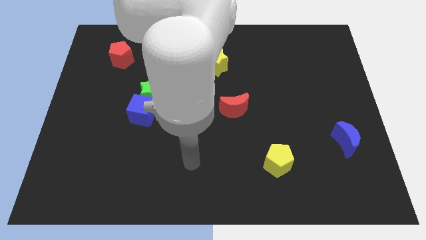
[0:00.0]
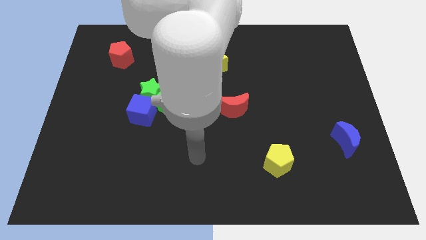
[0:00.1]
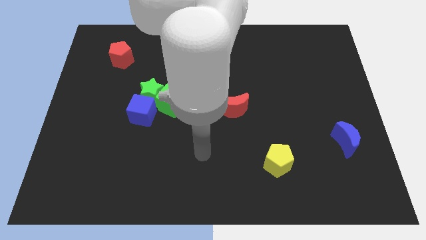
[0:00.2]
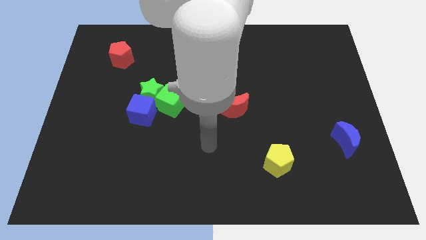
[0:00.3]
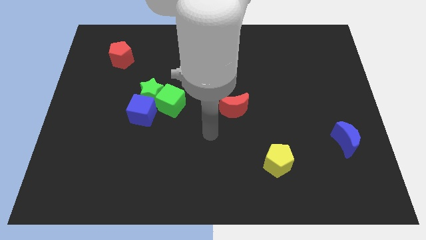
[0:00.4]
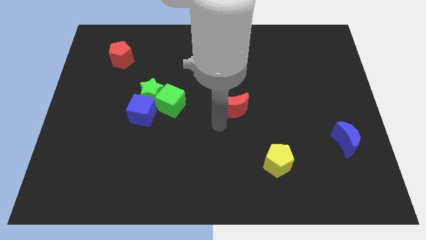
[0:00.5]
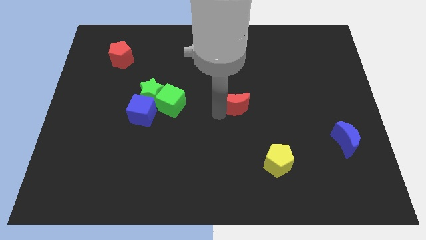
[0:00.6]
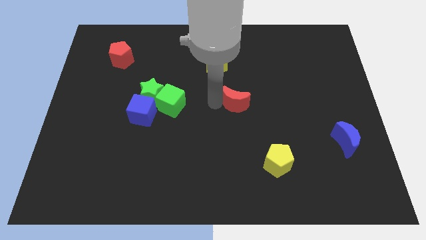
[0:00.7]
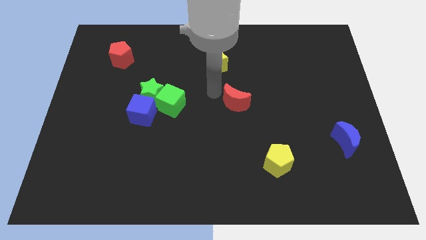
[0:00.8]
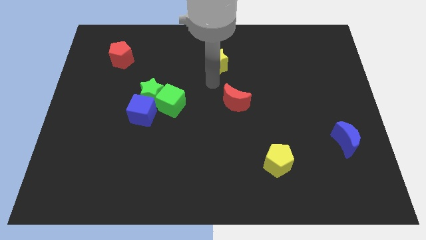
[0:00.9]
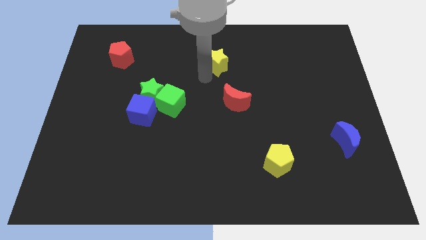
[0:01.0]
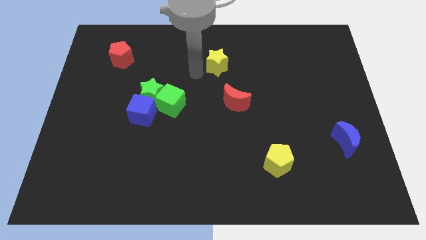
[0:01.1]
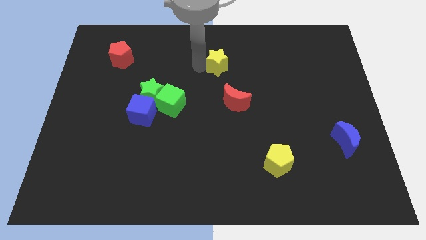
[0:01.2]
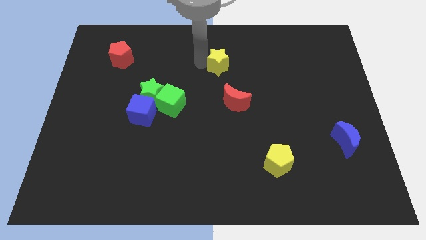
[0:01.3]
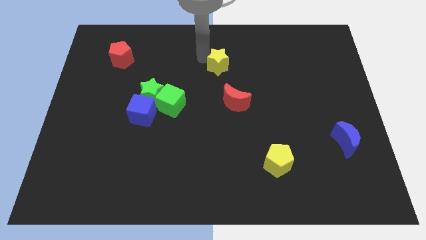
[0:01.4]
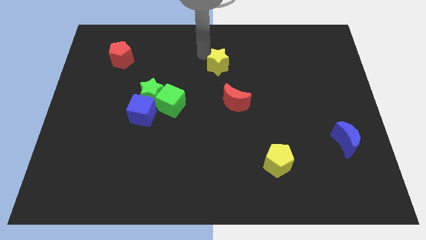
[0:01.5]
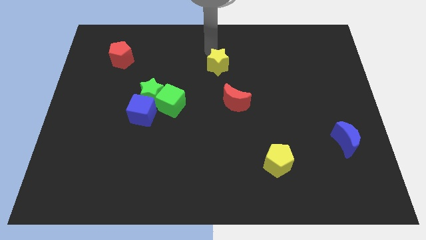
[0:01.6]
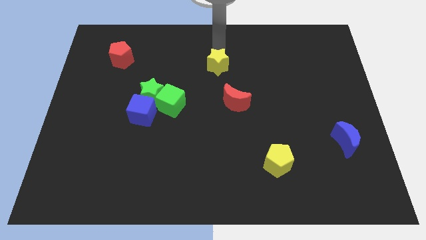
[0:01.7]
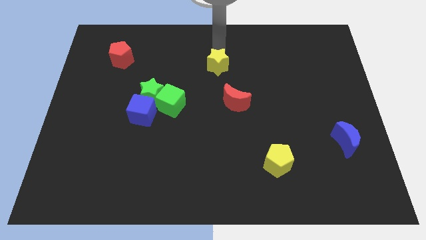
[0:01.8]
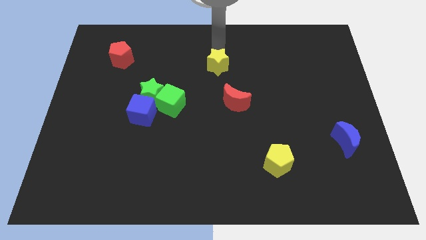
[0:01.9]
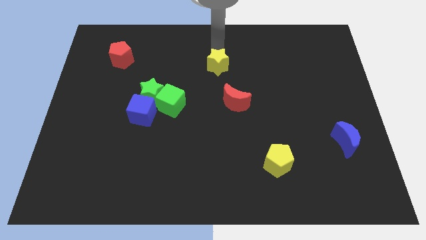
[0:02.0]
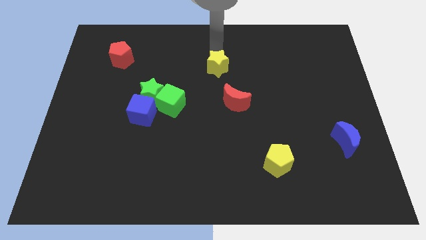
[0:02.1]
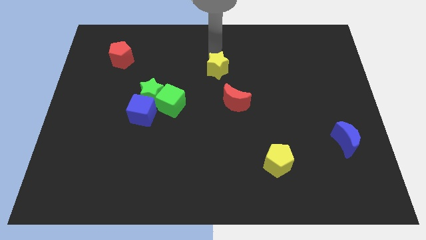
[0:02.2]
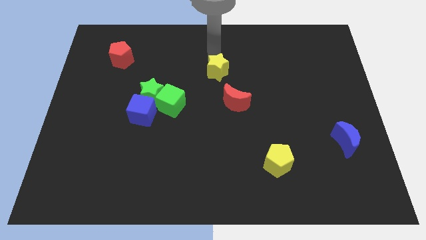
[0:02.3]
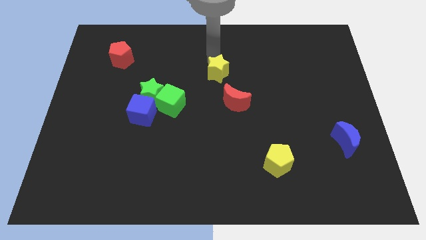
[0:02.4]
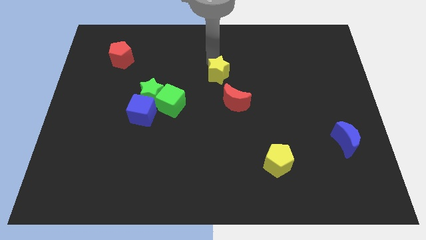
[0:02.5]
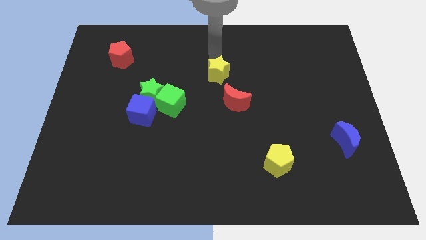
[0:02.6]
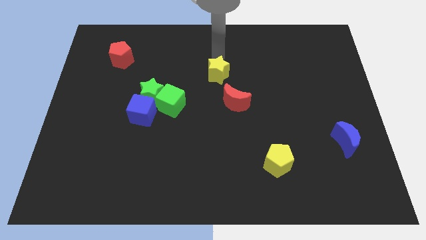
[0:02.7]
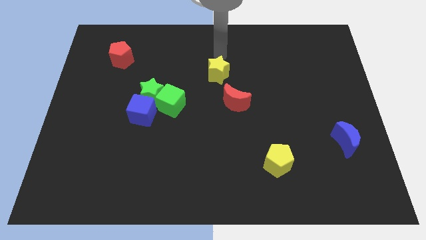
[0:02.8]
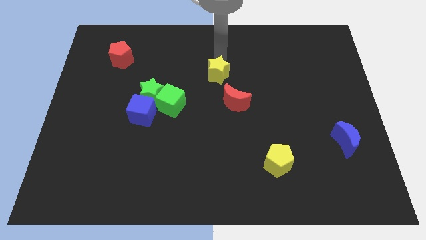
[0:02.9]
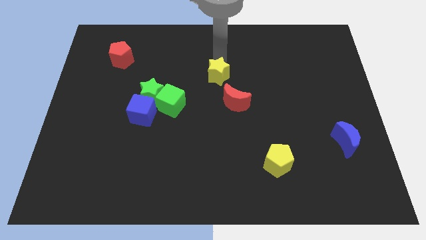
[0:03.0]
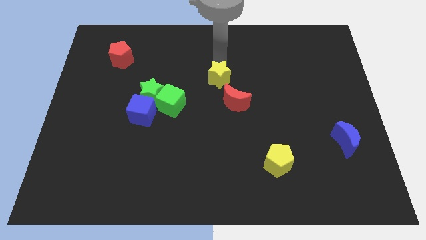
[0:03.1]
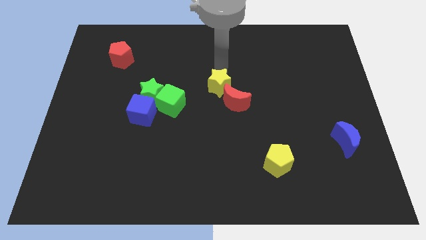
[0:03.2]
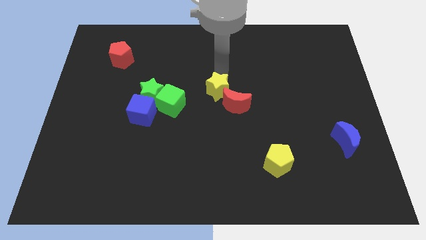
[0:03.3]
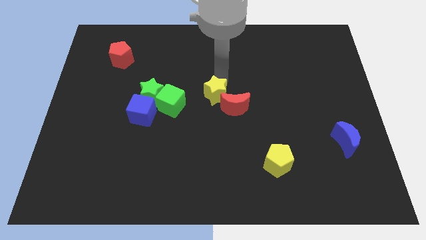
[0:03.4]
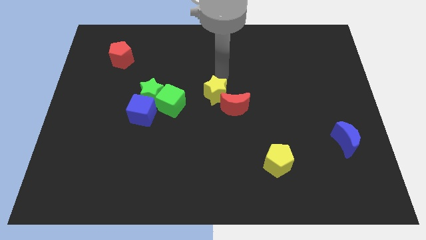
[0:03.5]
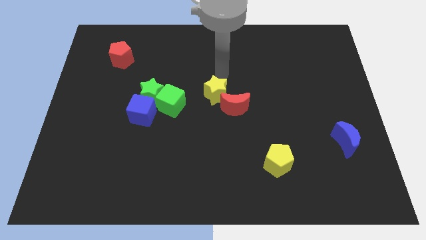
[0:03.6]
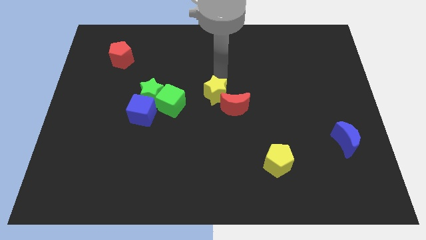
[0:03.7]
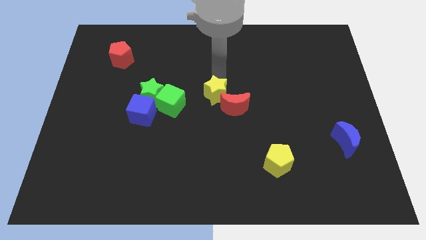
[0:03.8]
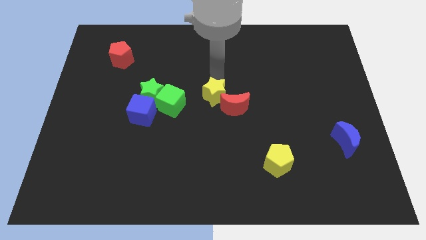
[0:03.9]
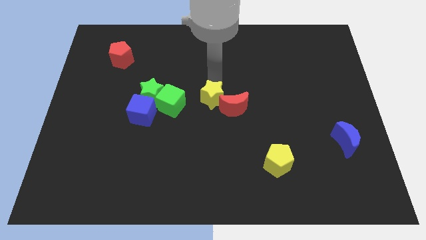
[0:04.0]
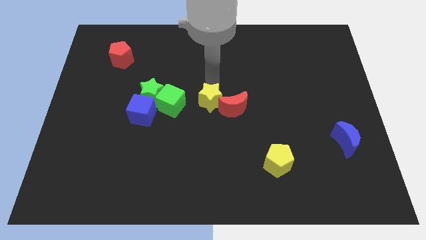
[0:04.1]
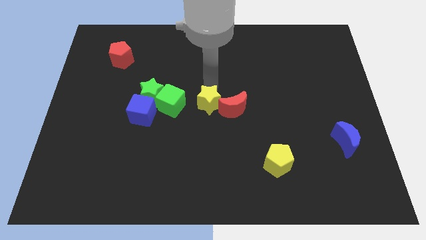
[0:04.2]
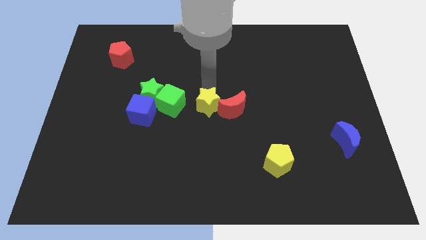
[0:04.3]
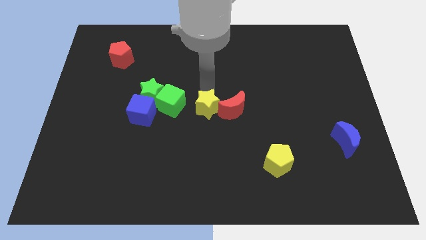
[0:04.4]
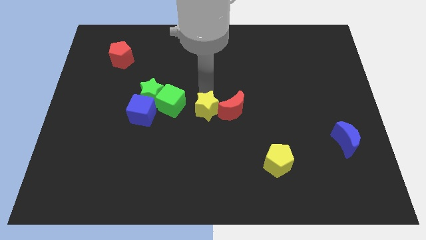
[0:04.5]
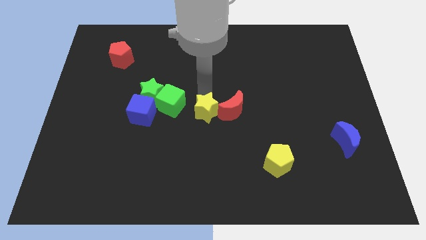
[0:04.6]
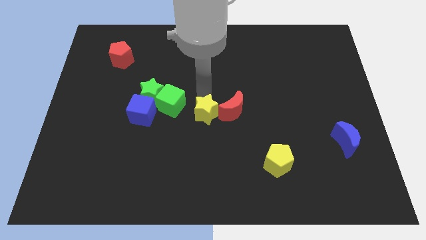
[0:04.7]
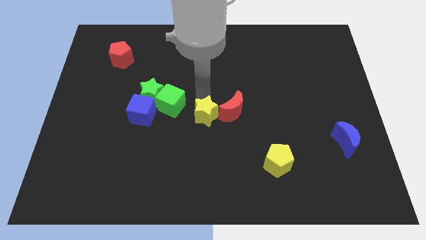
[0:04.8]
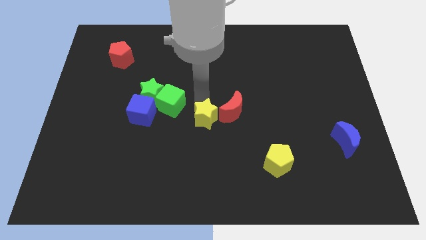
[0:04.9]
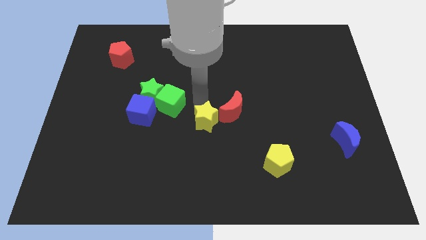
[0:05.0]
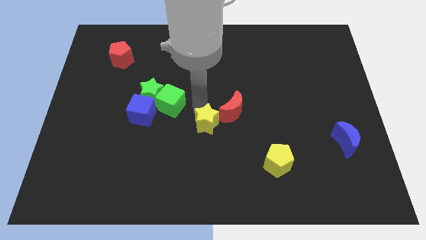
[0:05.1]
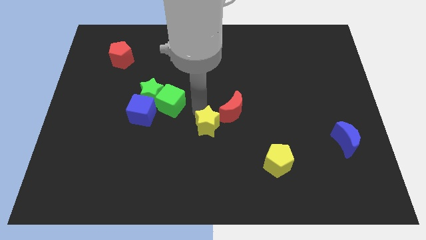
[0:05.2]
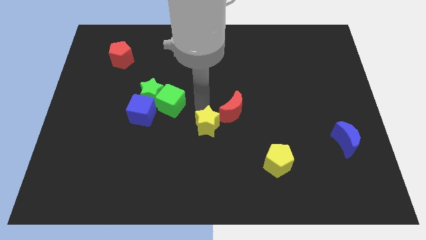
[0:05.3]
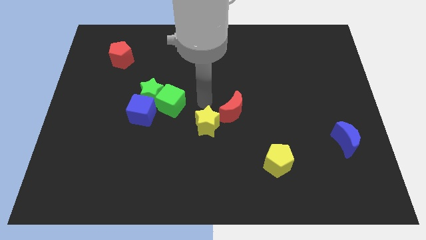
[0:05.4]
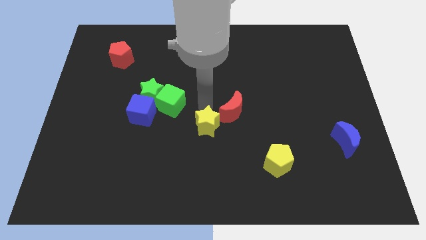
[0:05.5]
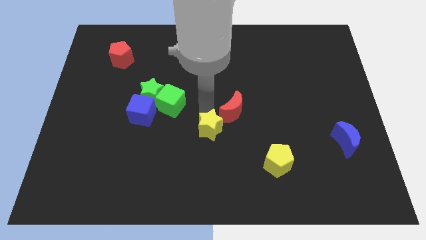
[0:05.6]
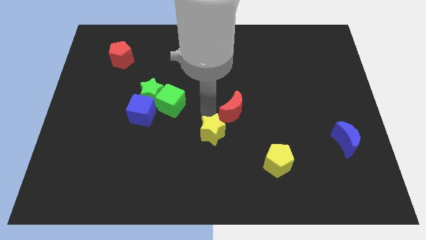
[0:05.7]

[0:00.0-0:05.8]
push the yellow star down

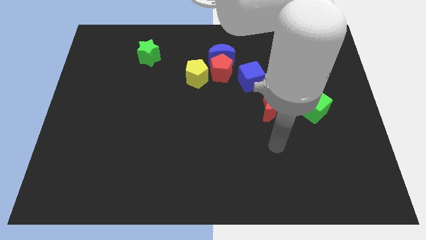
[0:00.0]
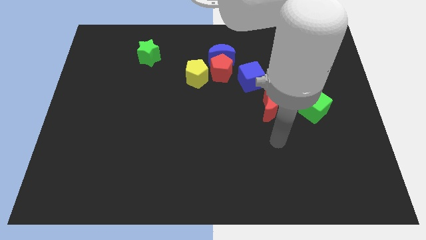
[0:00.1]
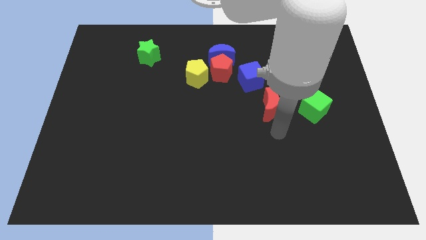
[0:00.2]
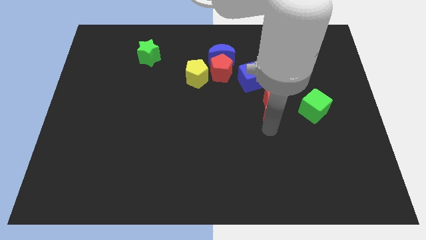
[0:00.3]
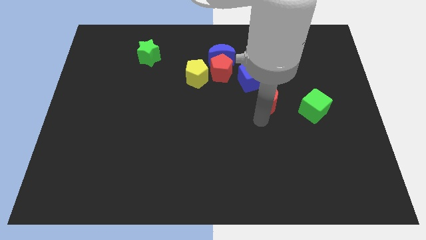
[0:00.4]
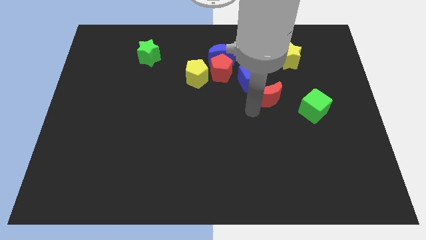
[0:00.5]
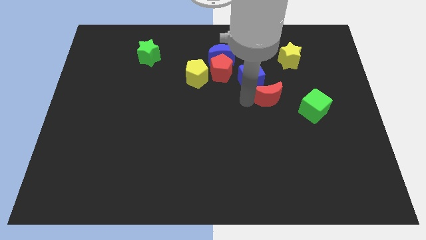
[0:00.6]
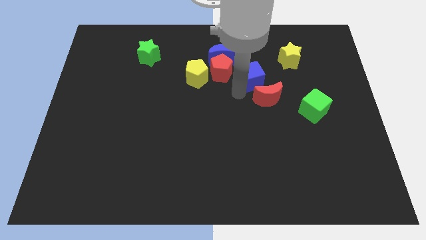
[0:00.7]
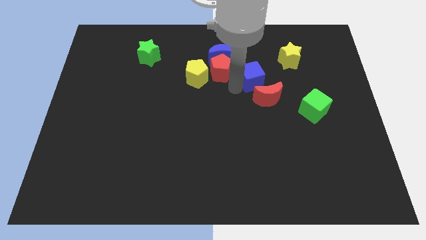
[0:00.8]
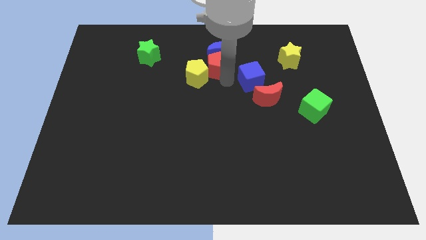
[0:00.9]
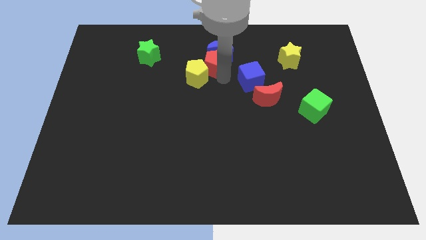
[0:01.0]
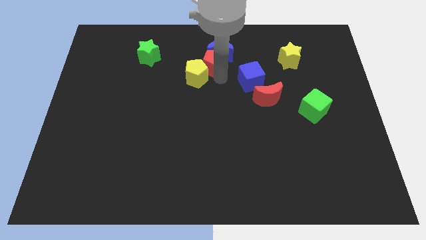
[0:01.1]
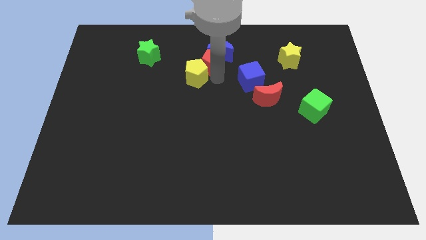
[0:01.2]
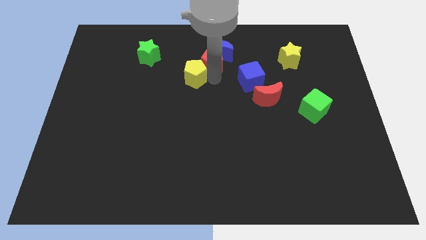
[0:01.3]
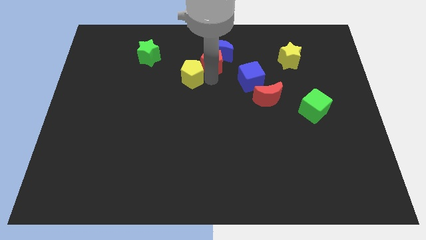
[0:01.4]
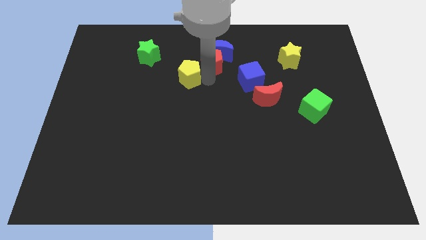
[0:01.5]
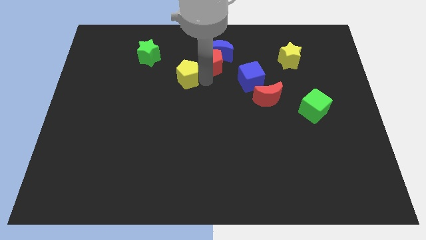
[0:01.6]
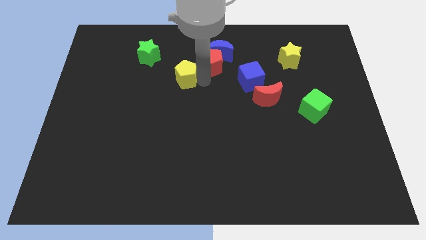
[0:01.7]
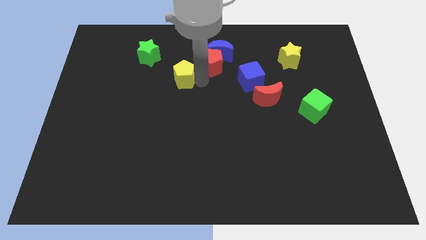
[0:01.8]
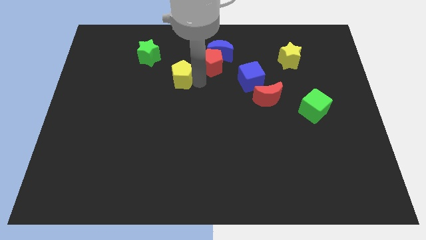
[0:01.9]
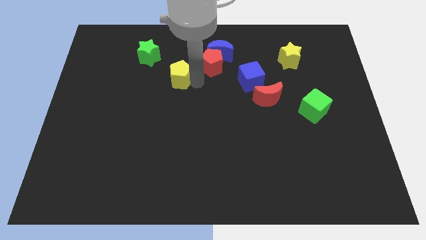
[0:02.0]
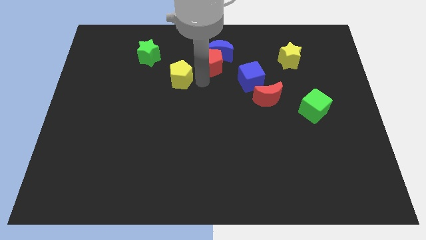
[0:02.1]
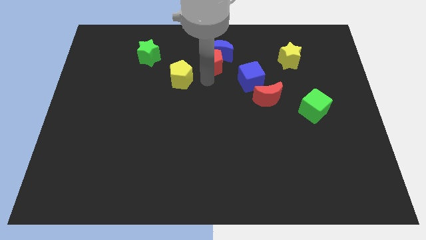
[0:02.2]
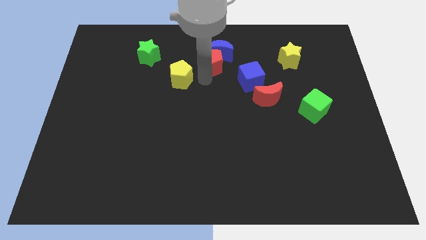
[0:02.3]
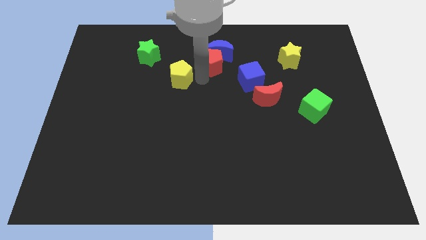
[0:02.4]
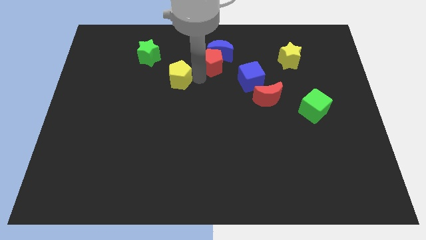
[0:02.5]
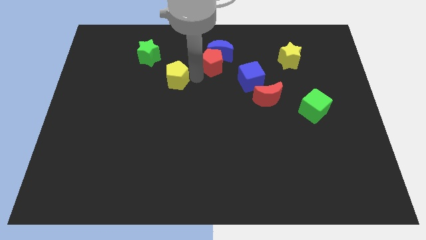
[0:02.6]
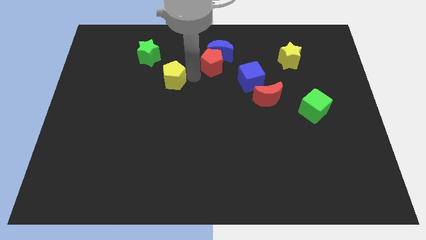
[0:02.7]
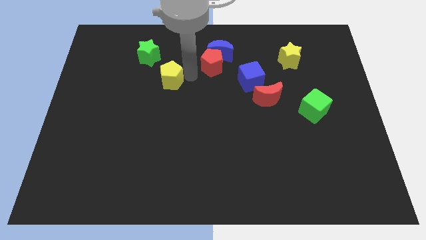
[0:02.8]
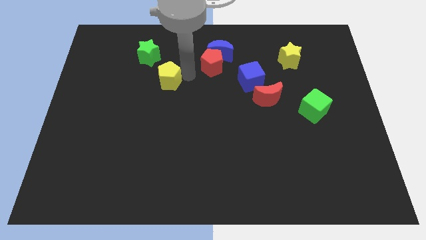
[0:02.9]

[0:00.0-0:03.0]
push the yellow pentagon to the left a little
